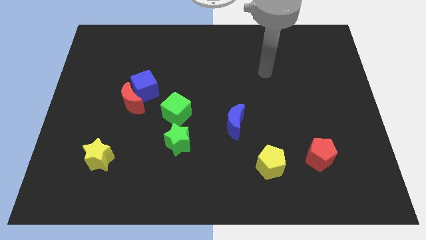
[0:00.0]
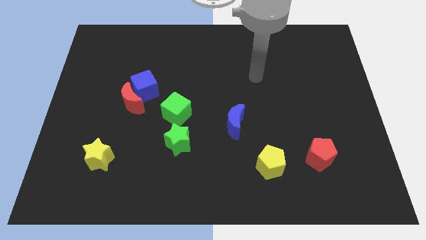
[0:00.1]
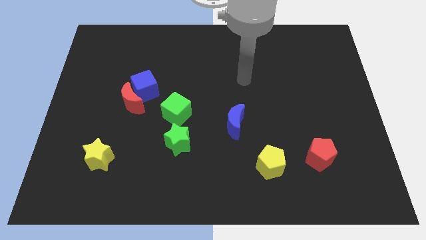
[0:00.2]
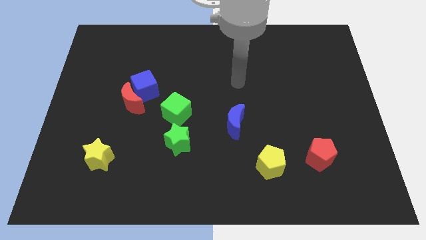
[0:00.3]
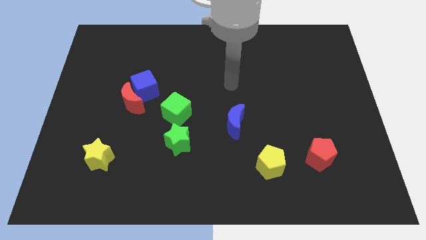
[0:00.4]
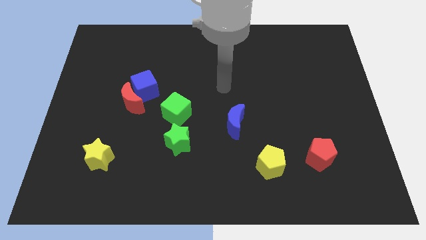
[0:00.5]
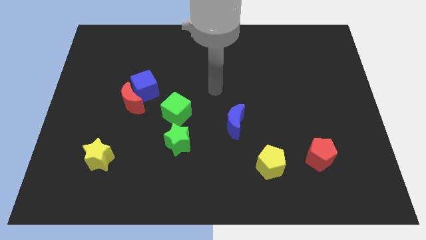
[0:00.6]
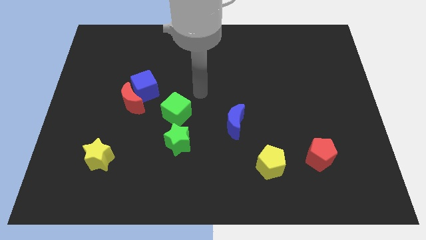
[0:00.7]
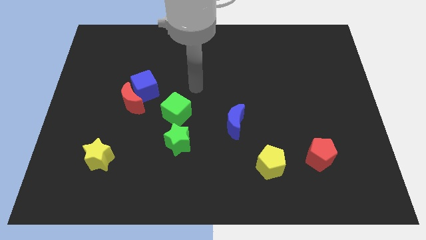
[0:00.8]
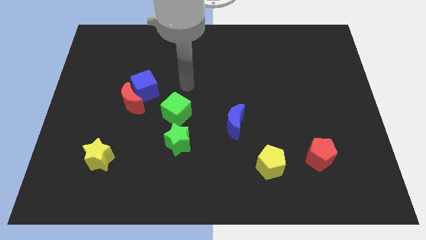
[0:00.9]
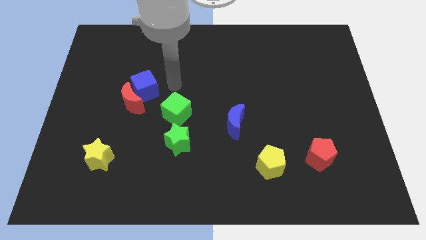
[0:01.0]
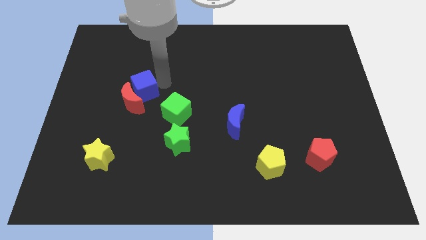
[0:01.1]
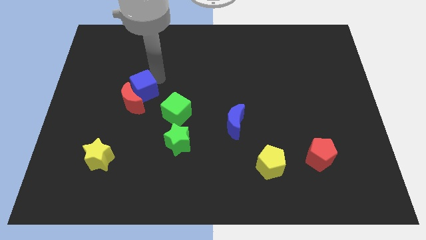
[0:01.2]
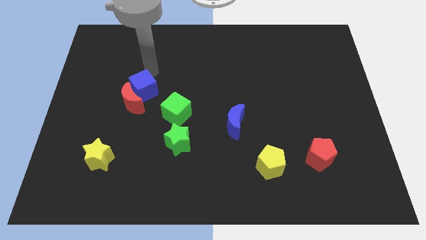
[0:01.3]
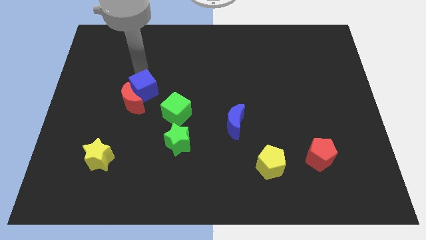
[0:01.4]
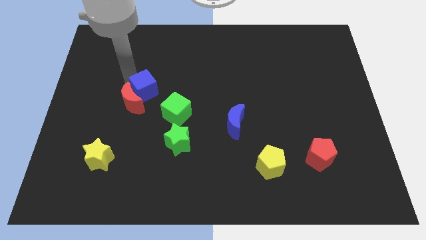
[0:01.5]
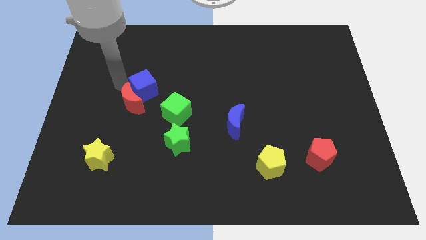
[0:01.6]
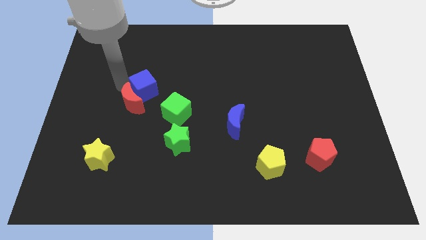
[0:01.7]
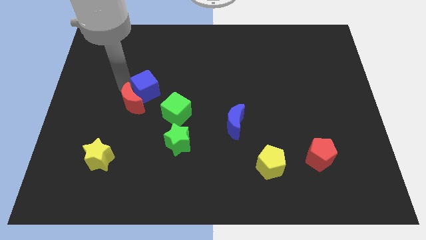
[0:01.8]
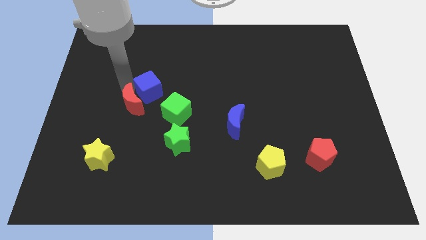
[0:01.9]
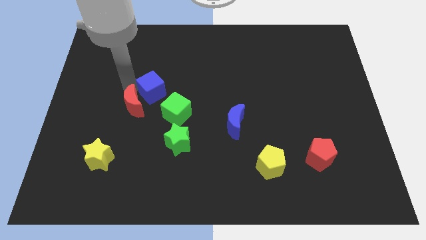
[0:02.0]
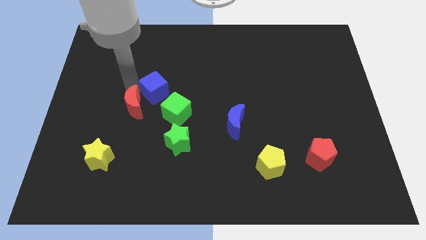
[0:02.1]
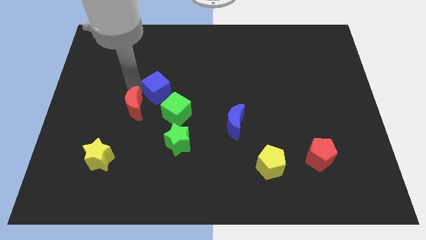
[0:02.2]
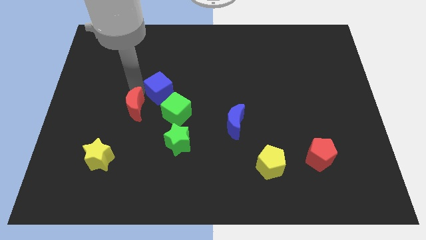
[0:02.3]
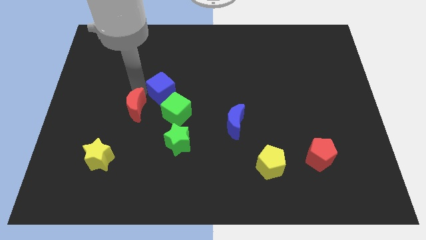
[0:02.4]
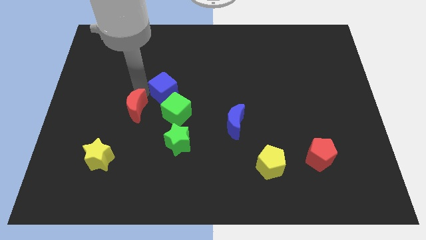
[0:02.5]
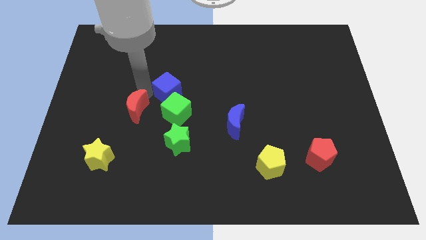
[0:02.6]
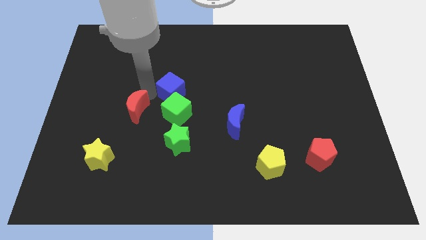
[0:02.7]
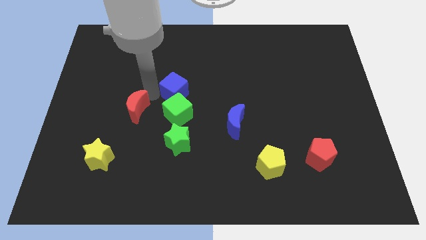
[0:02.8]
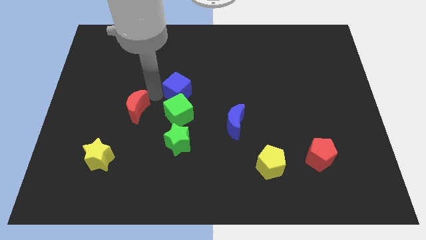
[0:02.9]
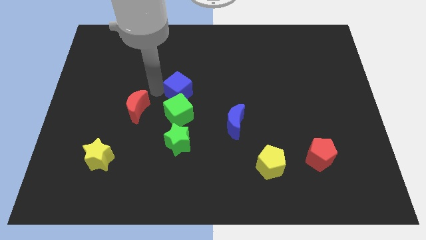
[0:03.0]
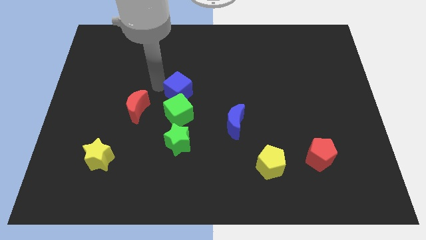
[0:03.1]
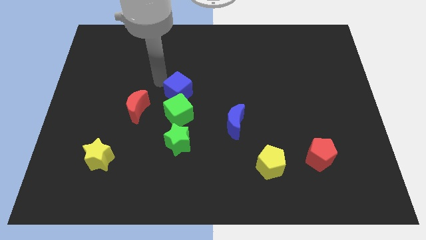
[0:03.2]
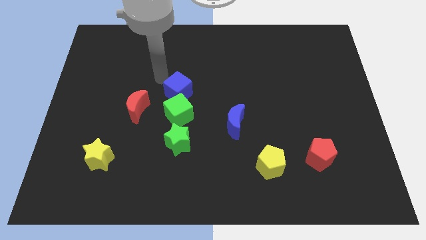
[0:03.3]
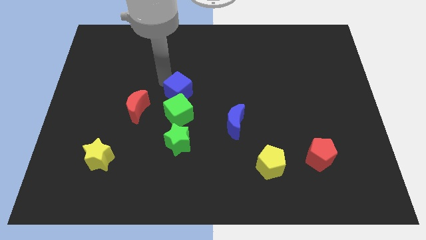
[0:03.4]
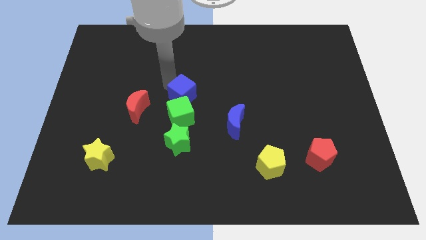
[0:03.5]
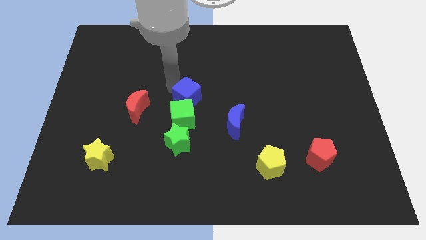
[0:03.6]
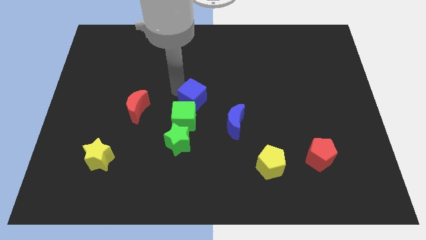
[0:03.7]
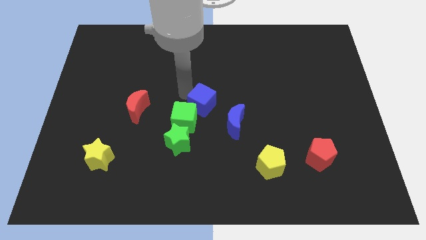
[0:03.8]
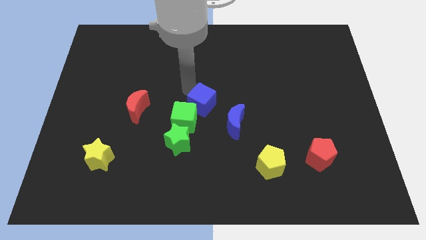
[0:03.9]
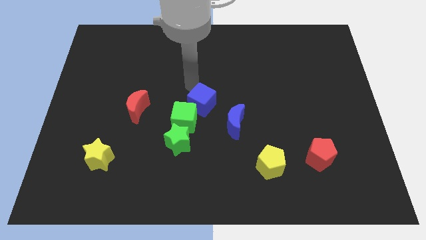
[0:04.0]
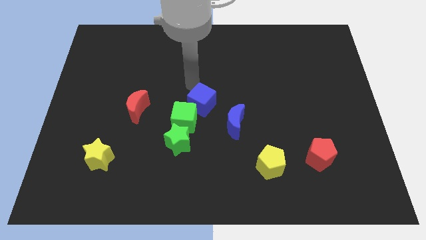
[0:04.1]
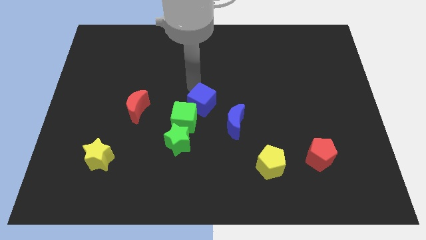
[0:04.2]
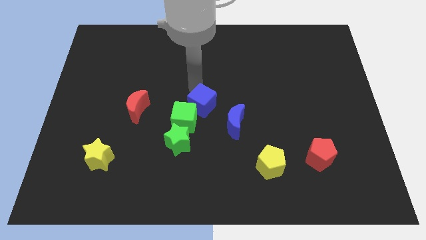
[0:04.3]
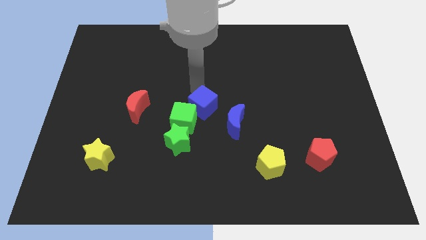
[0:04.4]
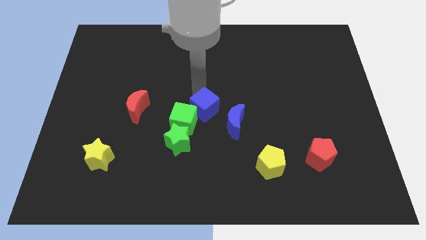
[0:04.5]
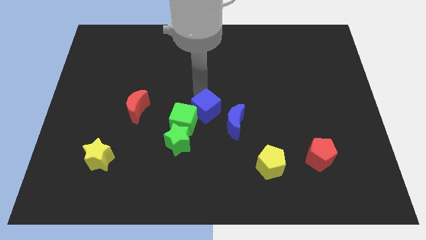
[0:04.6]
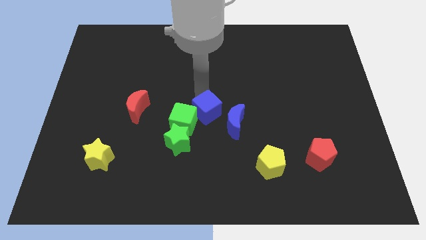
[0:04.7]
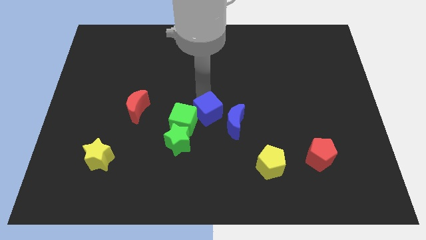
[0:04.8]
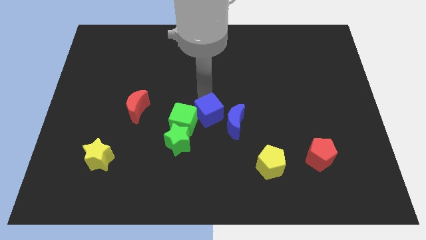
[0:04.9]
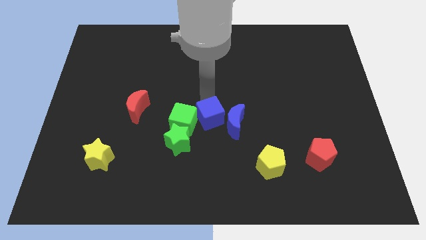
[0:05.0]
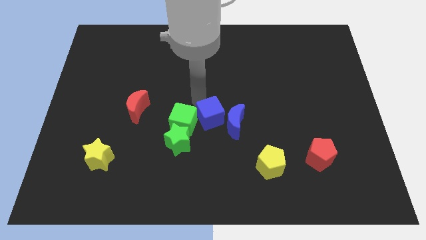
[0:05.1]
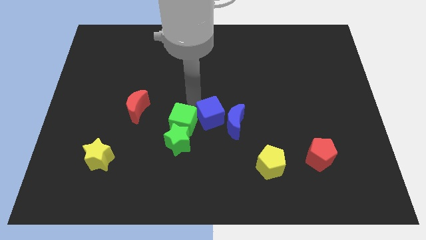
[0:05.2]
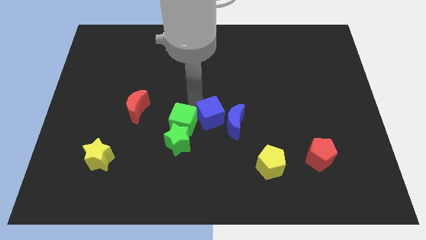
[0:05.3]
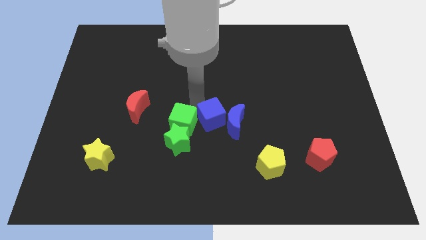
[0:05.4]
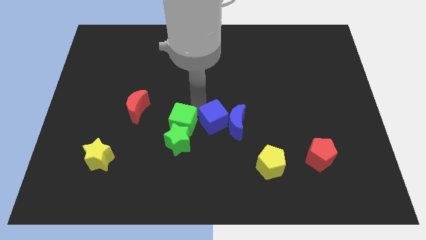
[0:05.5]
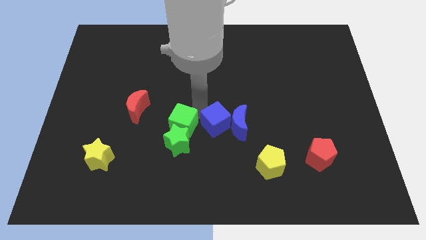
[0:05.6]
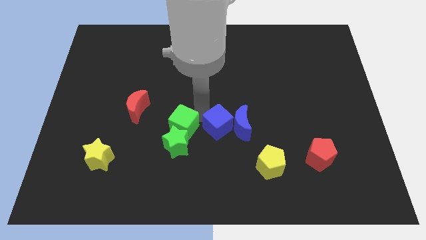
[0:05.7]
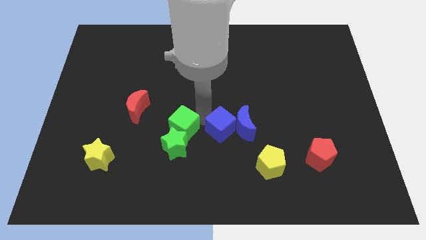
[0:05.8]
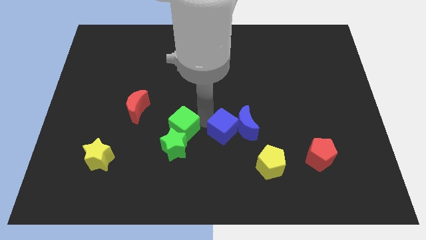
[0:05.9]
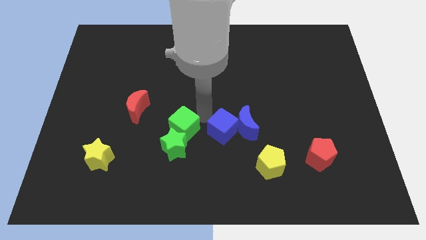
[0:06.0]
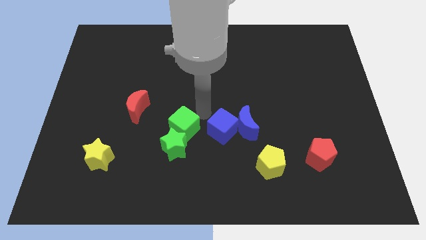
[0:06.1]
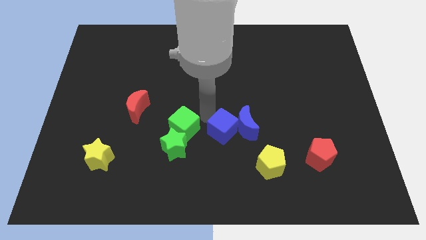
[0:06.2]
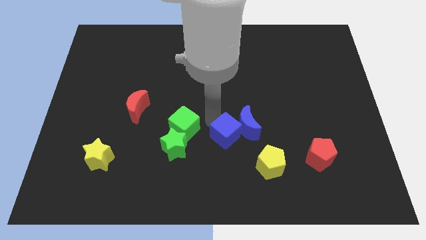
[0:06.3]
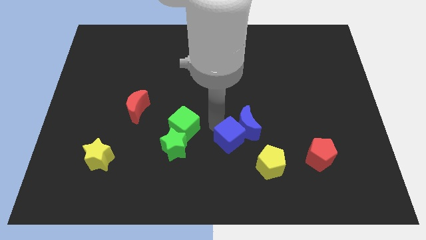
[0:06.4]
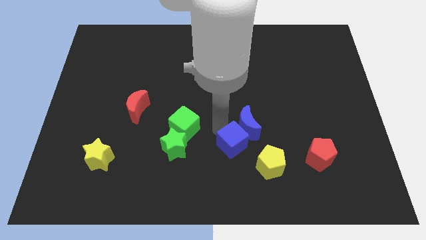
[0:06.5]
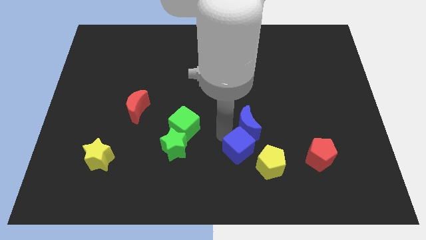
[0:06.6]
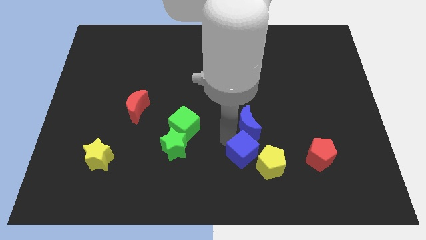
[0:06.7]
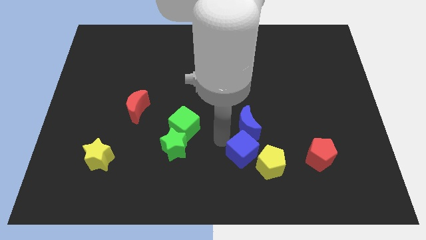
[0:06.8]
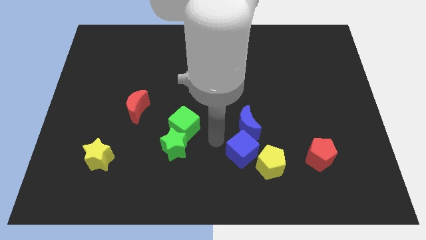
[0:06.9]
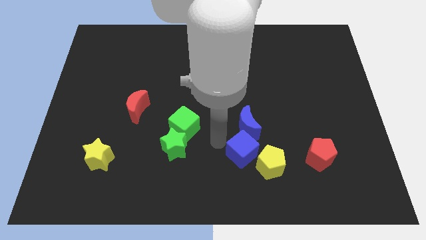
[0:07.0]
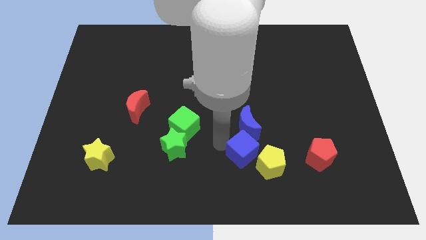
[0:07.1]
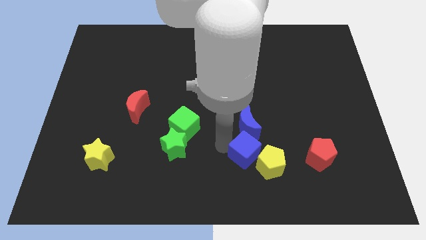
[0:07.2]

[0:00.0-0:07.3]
put the blue cube towards the yellow pentagon

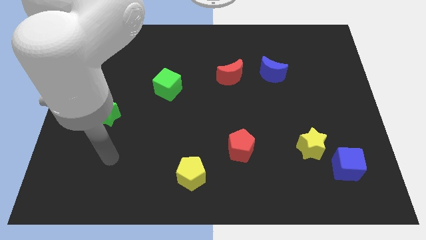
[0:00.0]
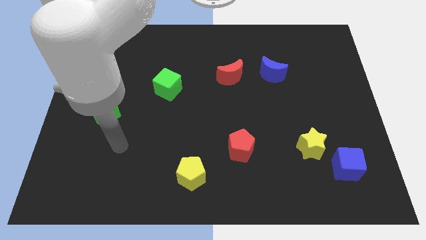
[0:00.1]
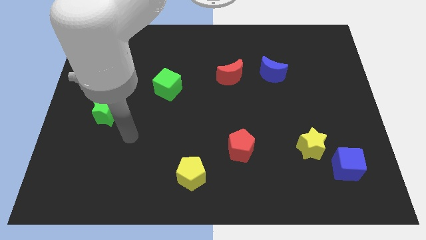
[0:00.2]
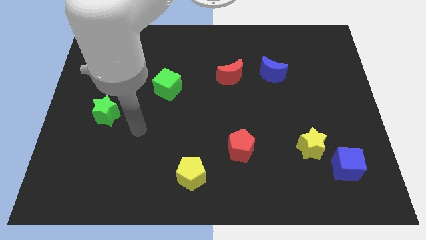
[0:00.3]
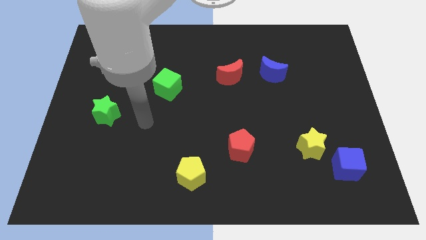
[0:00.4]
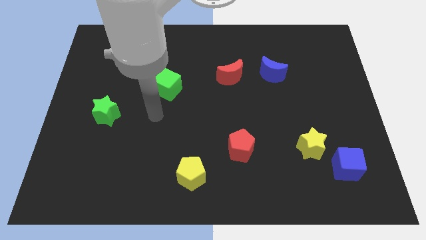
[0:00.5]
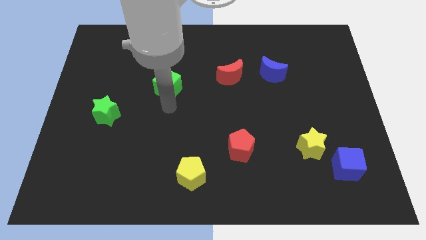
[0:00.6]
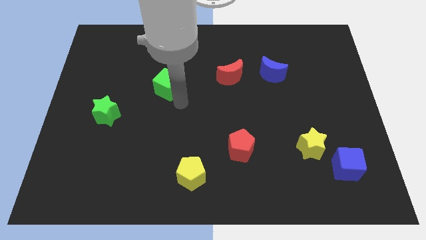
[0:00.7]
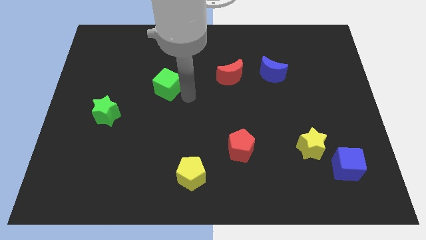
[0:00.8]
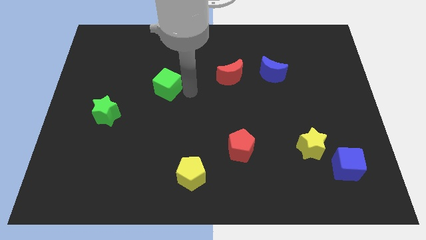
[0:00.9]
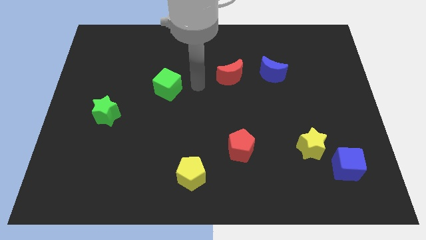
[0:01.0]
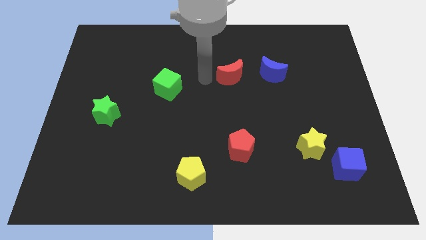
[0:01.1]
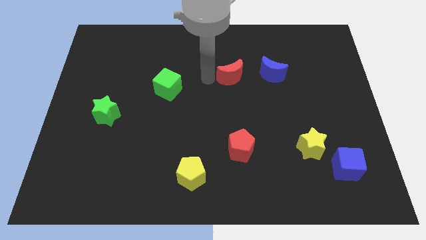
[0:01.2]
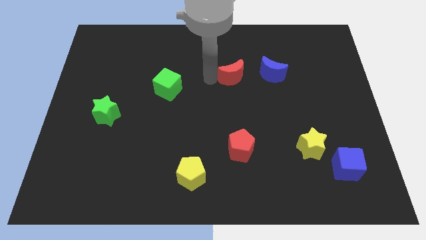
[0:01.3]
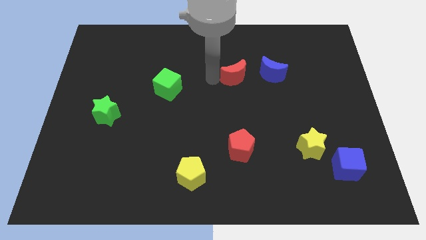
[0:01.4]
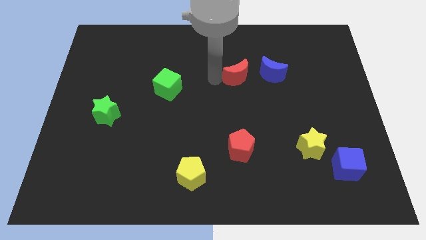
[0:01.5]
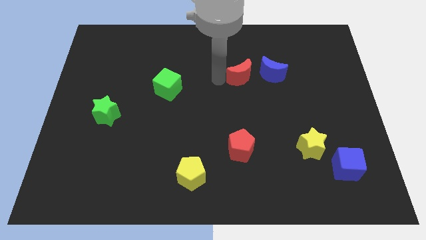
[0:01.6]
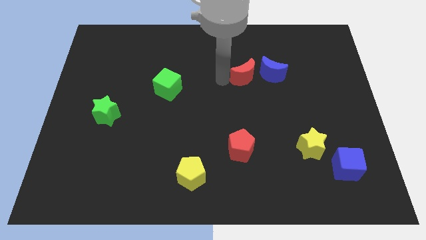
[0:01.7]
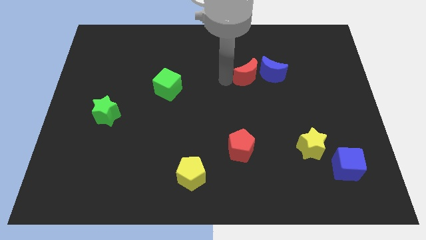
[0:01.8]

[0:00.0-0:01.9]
slide the red moon next to the blue moon
